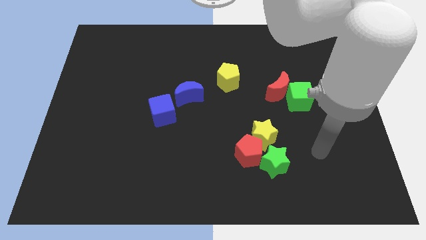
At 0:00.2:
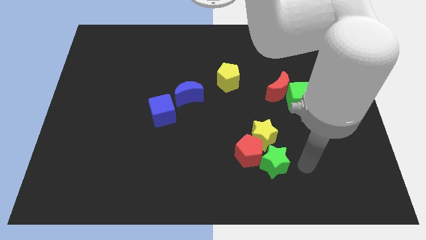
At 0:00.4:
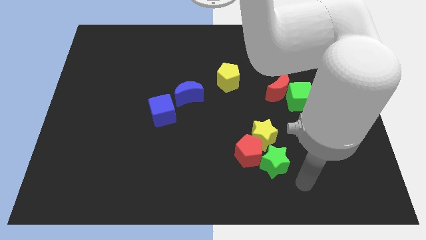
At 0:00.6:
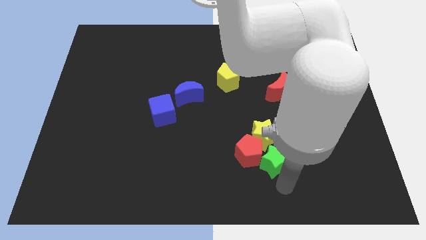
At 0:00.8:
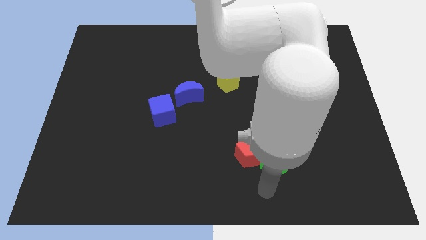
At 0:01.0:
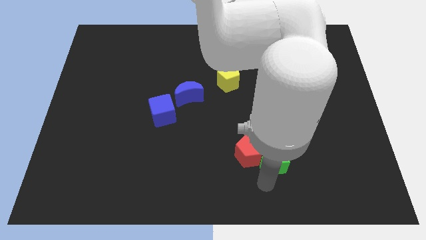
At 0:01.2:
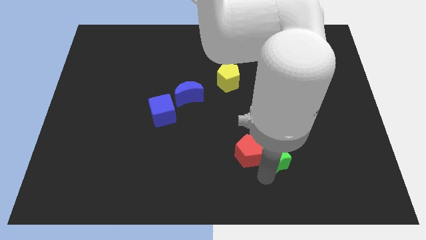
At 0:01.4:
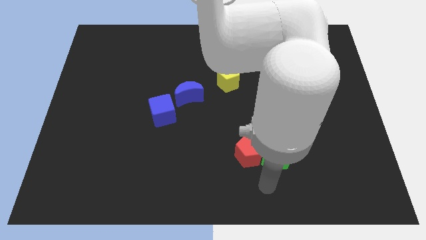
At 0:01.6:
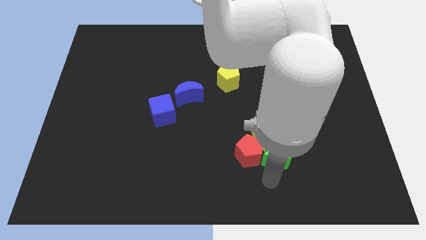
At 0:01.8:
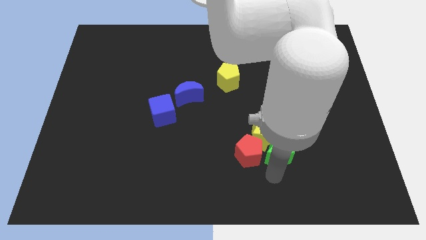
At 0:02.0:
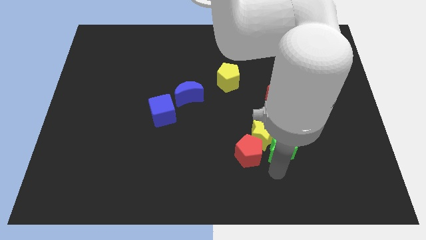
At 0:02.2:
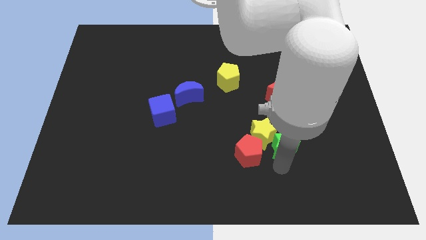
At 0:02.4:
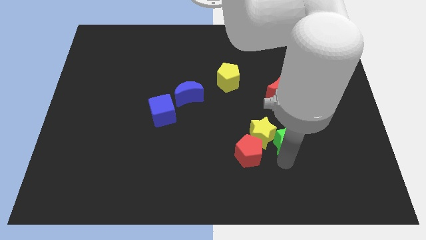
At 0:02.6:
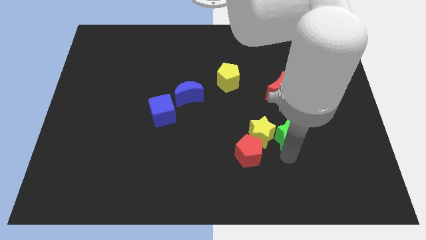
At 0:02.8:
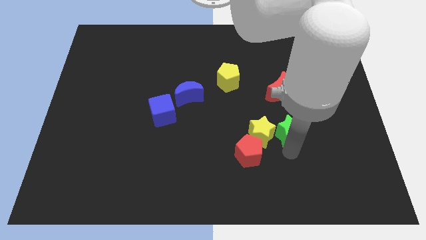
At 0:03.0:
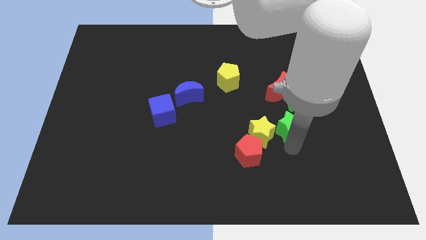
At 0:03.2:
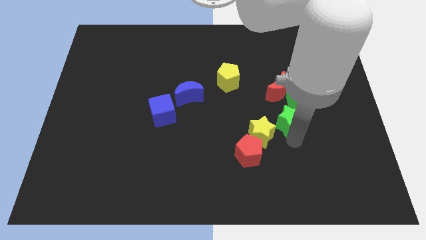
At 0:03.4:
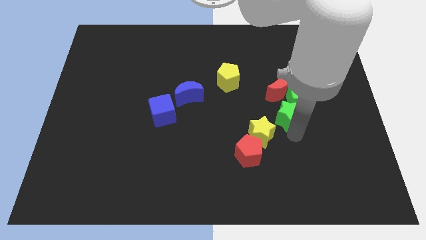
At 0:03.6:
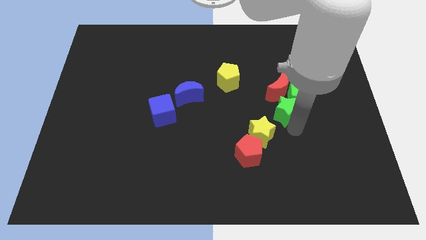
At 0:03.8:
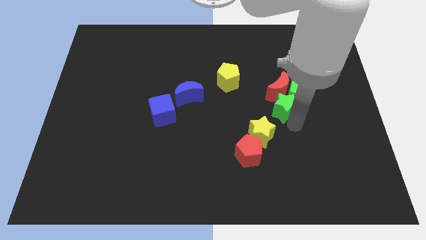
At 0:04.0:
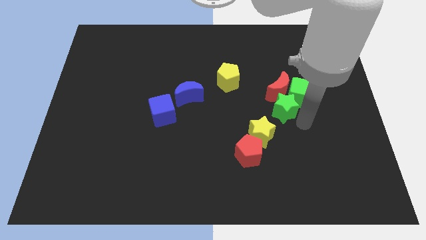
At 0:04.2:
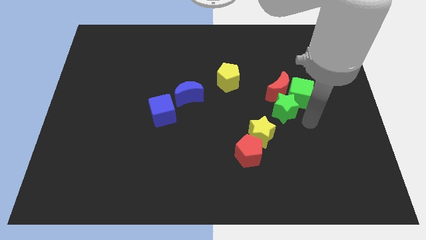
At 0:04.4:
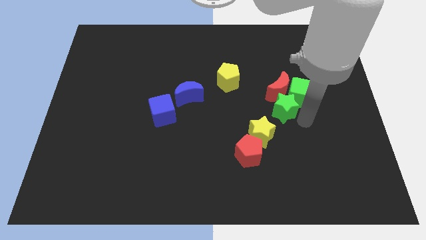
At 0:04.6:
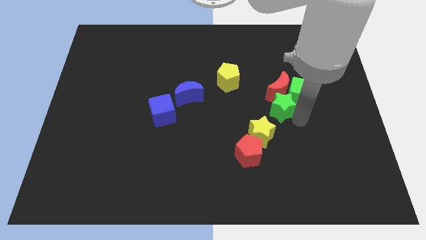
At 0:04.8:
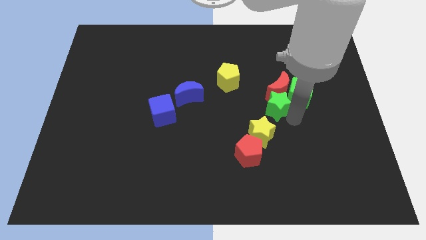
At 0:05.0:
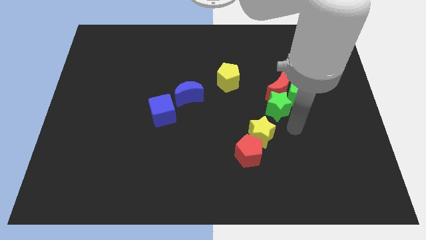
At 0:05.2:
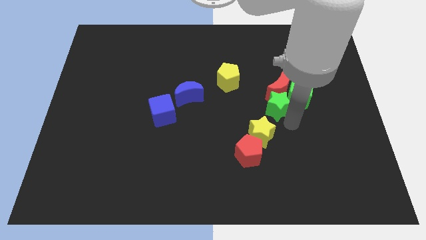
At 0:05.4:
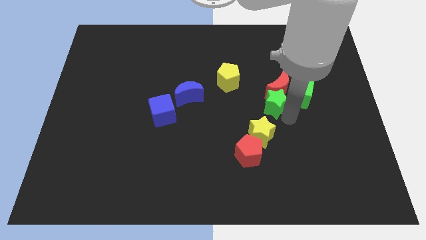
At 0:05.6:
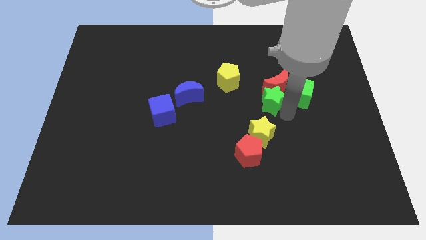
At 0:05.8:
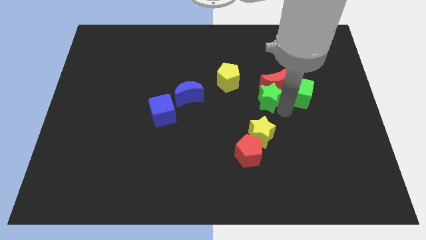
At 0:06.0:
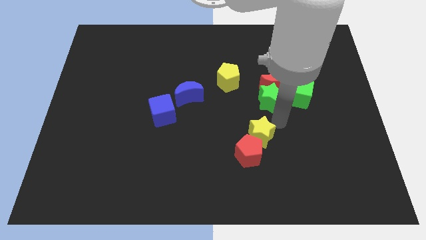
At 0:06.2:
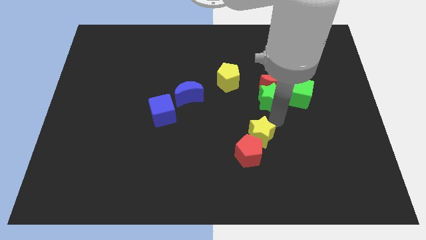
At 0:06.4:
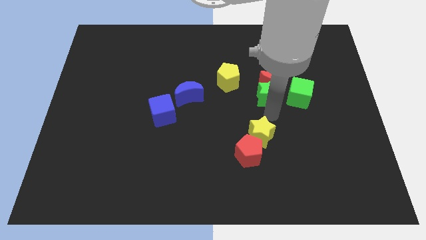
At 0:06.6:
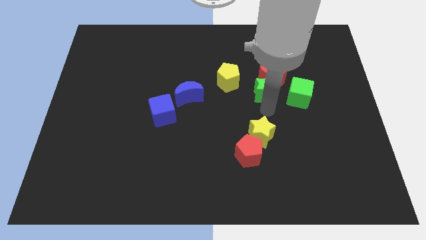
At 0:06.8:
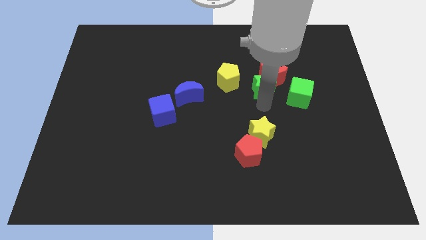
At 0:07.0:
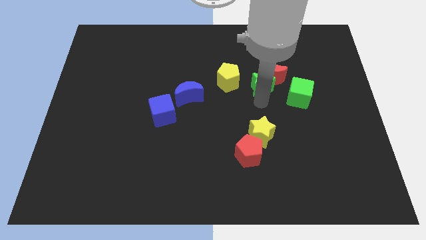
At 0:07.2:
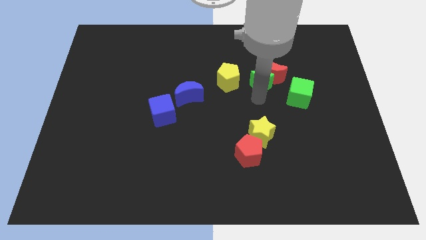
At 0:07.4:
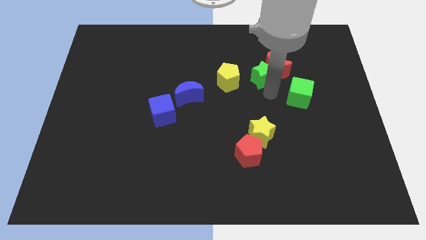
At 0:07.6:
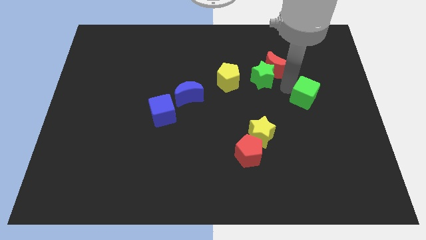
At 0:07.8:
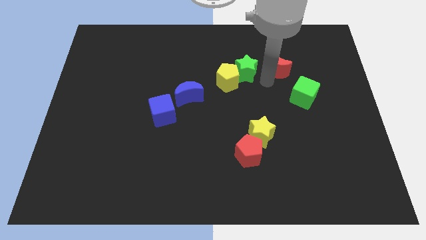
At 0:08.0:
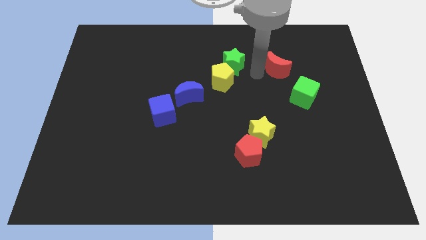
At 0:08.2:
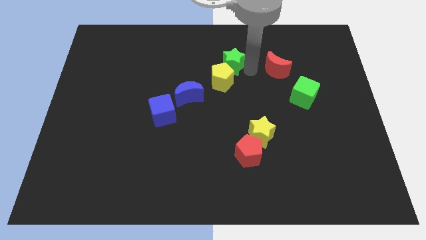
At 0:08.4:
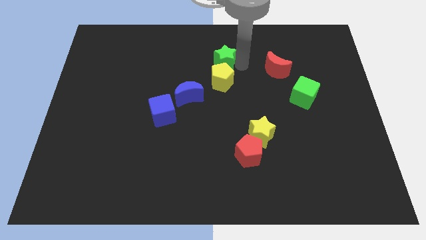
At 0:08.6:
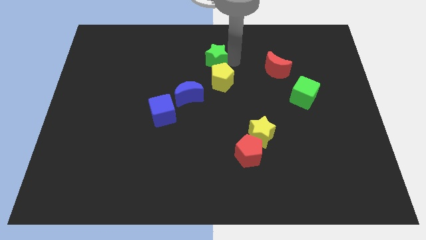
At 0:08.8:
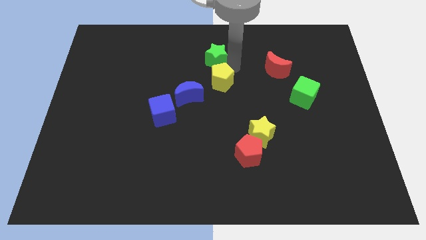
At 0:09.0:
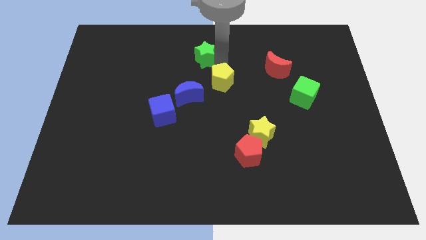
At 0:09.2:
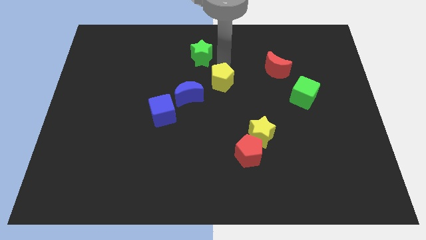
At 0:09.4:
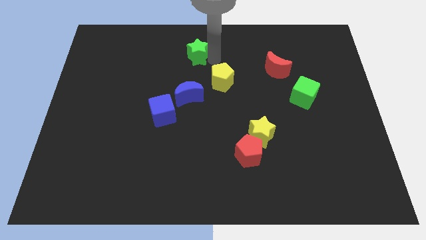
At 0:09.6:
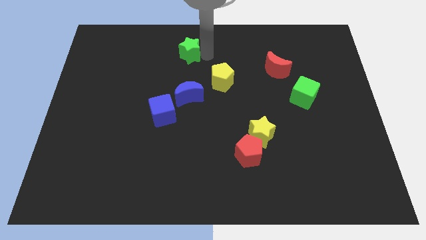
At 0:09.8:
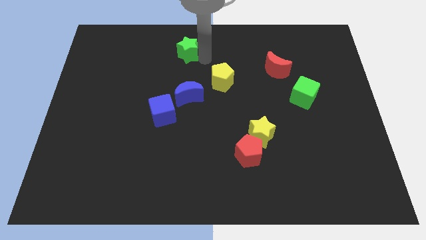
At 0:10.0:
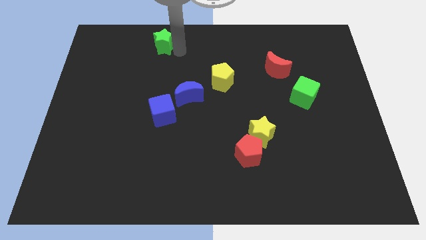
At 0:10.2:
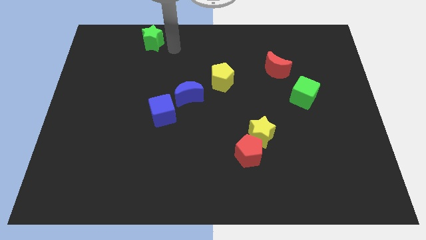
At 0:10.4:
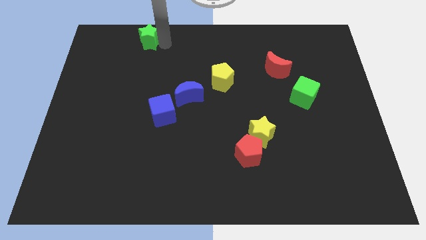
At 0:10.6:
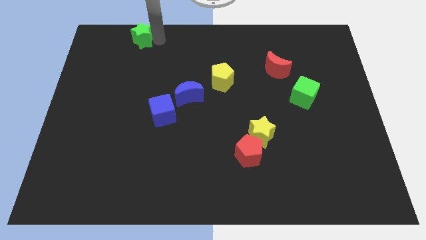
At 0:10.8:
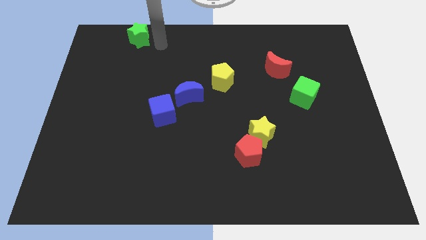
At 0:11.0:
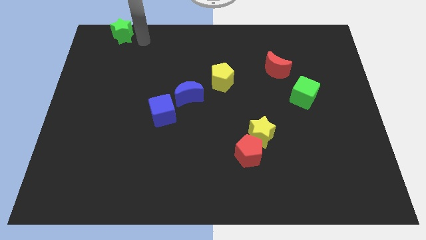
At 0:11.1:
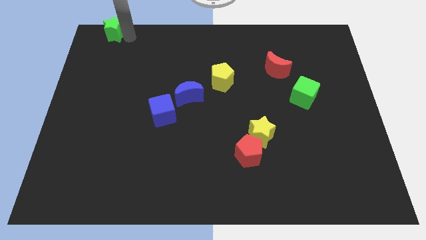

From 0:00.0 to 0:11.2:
slide the green star to the top left corner

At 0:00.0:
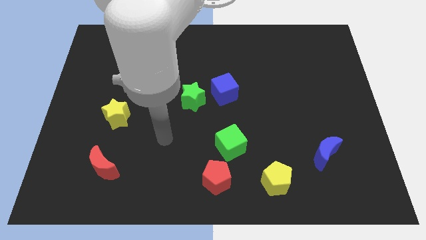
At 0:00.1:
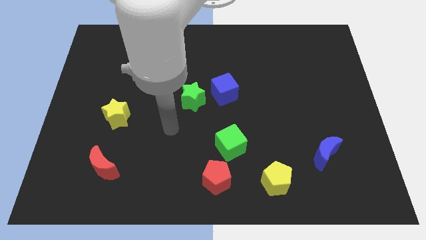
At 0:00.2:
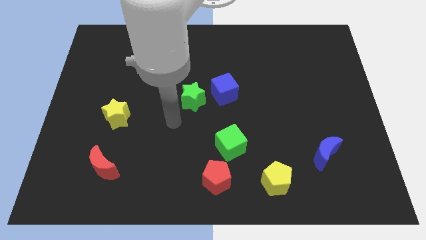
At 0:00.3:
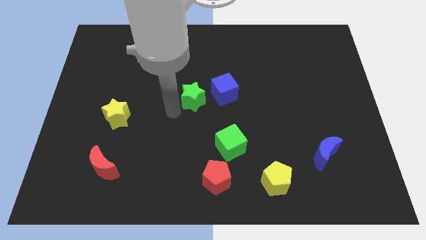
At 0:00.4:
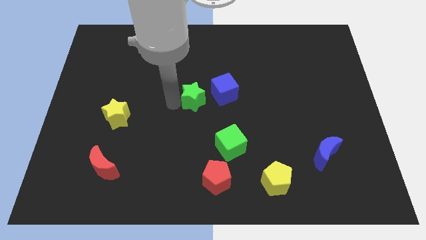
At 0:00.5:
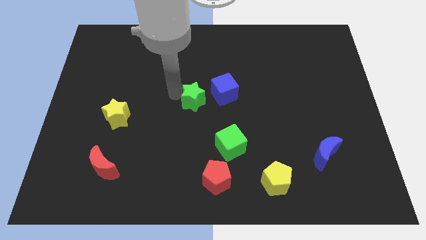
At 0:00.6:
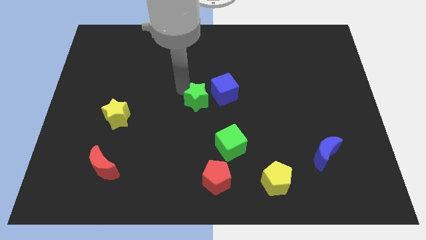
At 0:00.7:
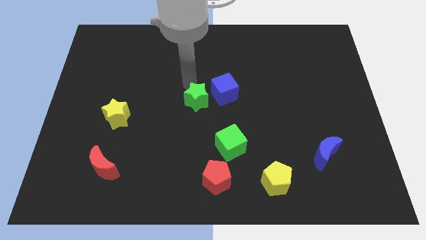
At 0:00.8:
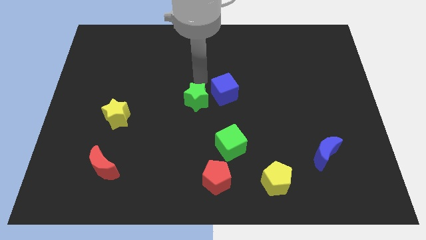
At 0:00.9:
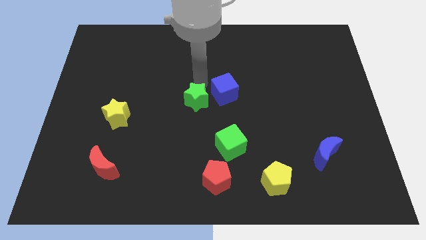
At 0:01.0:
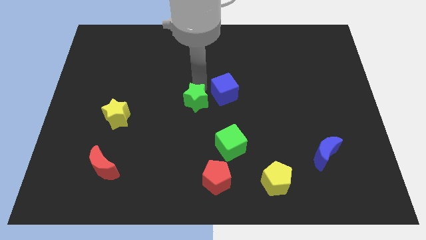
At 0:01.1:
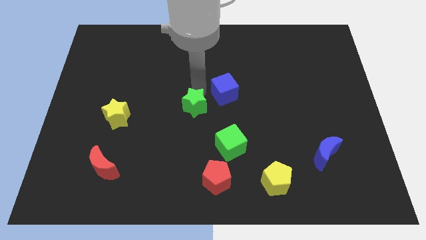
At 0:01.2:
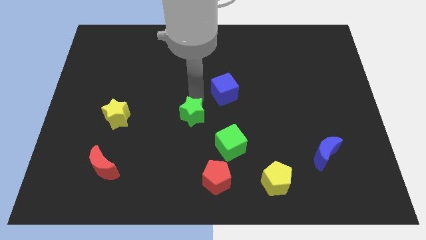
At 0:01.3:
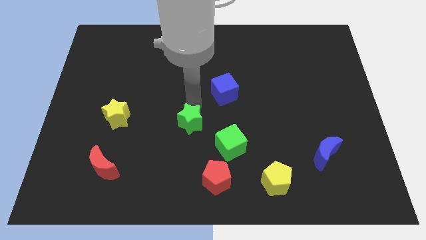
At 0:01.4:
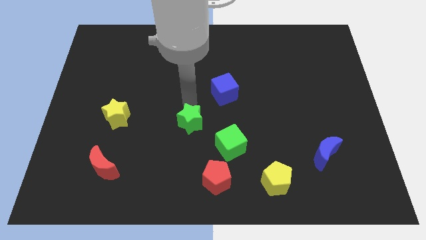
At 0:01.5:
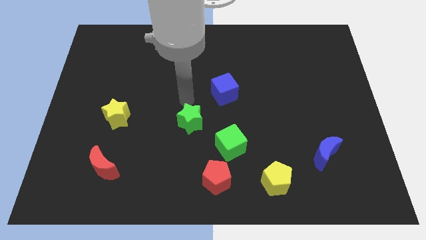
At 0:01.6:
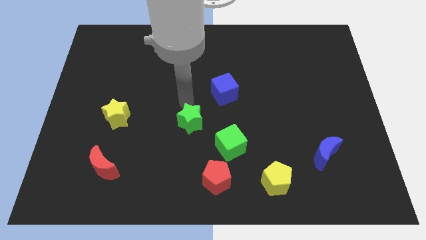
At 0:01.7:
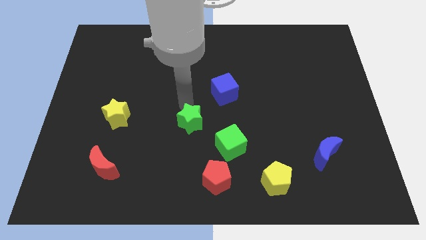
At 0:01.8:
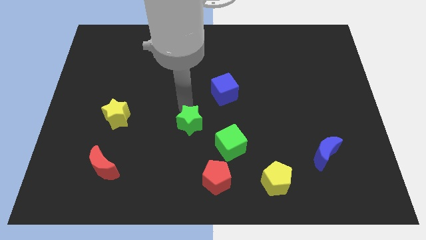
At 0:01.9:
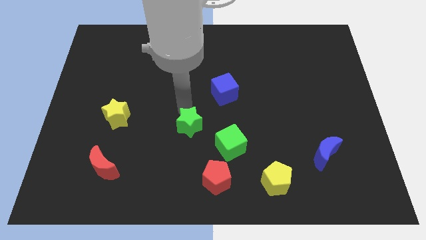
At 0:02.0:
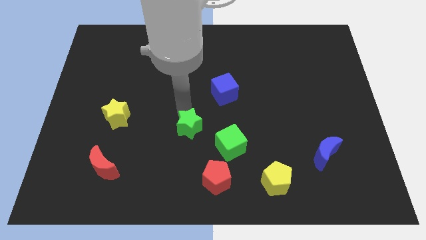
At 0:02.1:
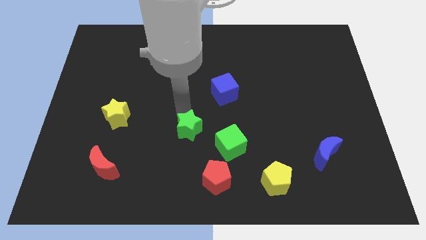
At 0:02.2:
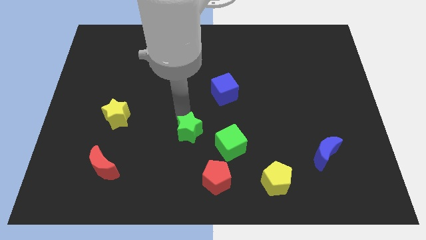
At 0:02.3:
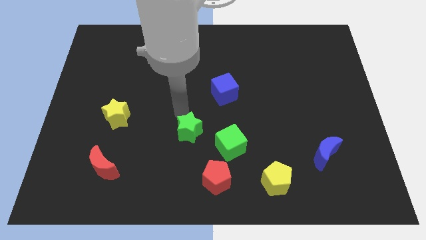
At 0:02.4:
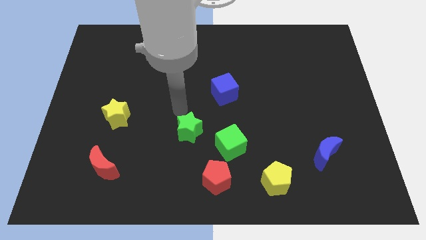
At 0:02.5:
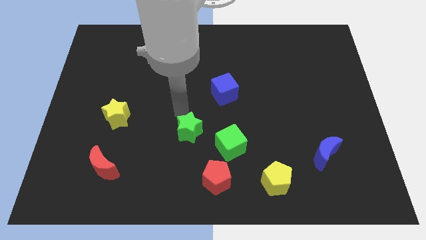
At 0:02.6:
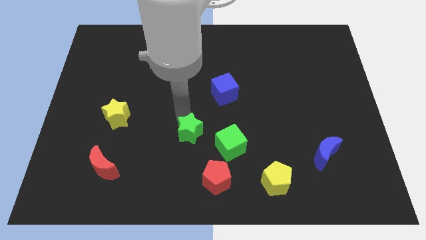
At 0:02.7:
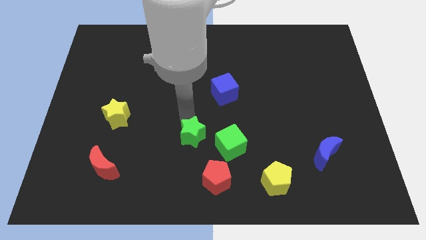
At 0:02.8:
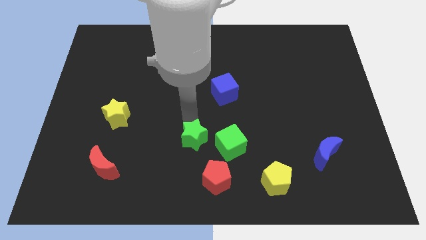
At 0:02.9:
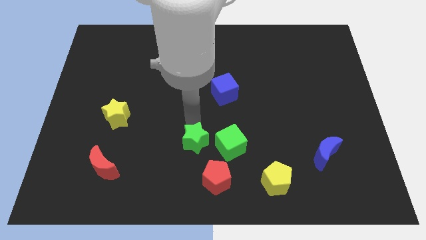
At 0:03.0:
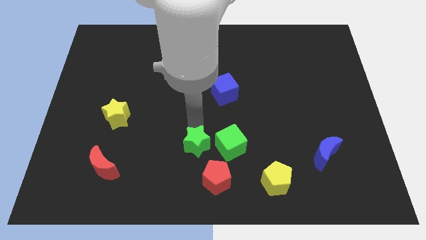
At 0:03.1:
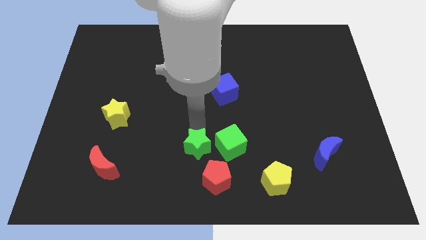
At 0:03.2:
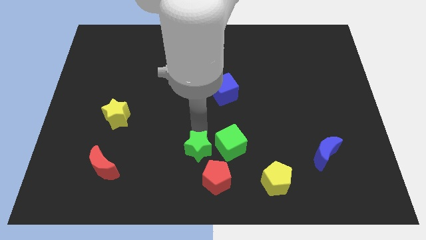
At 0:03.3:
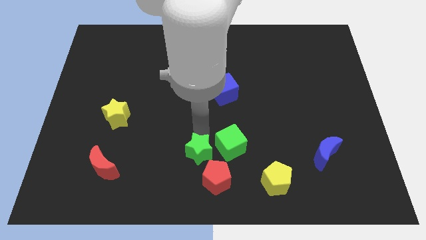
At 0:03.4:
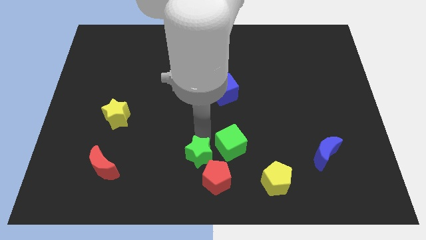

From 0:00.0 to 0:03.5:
move the green star to the bottom side
